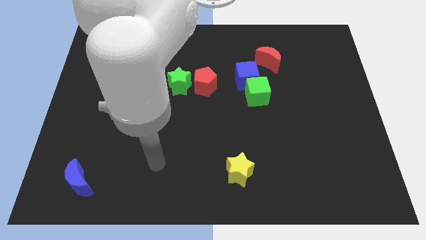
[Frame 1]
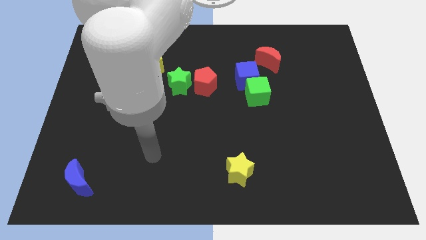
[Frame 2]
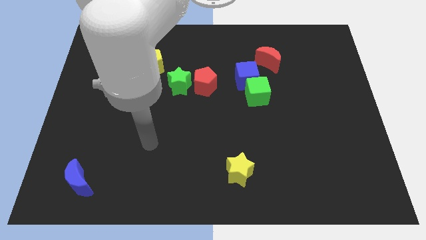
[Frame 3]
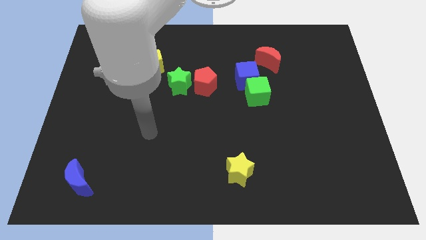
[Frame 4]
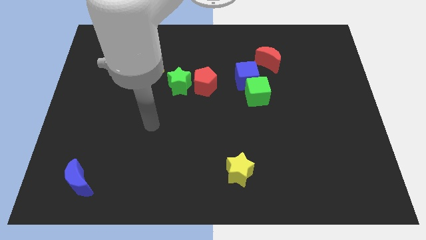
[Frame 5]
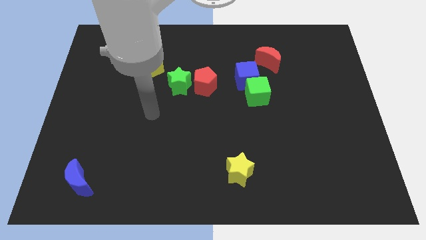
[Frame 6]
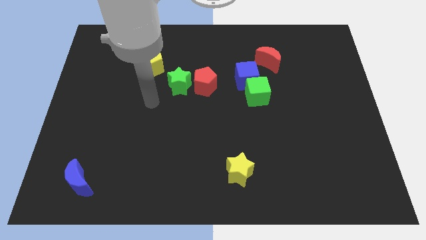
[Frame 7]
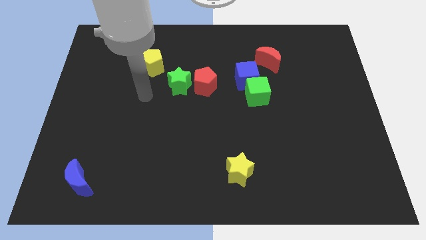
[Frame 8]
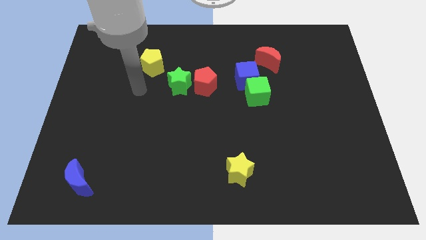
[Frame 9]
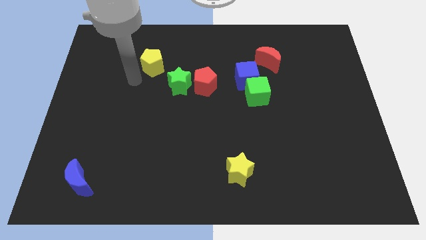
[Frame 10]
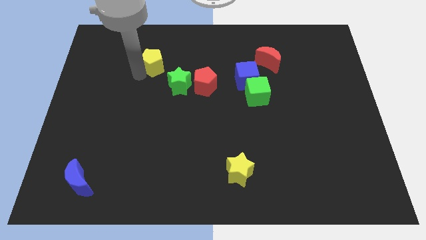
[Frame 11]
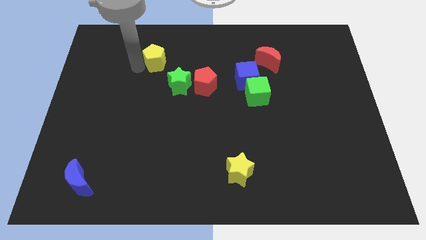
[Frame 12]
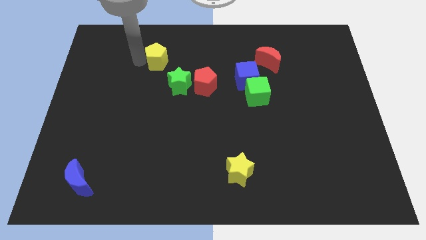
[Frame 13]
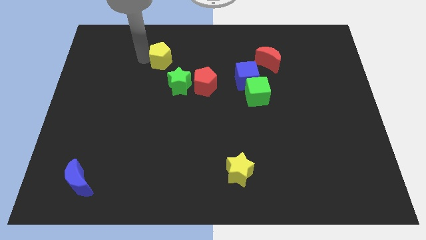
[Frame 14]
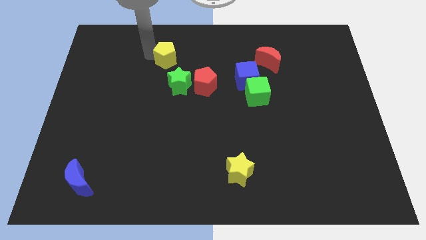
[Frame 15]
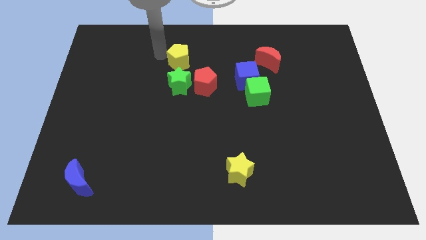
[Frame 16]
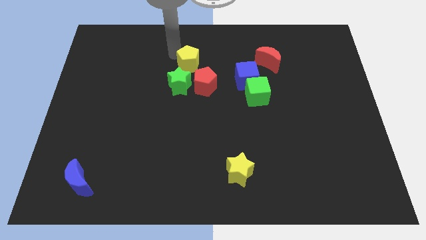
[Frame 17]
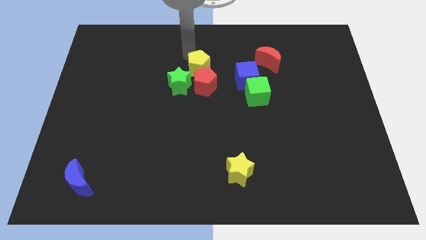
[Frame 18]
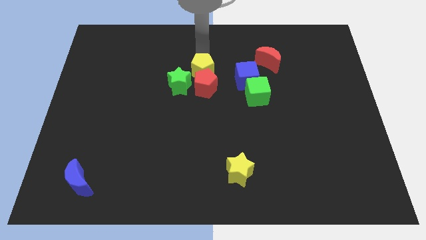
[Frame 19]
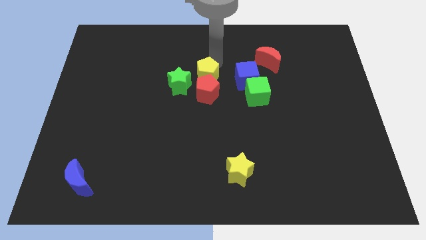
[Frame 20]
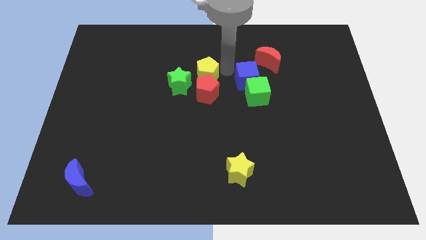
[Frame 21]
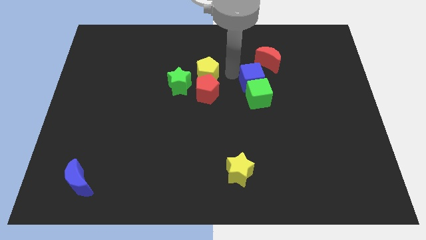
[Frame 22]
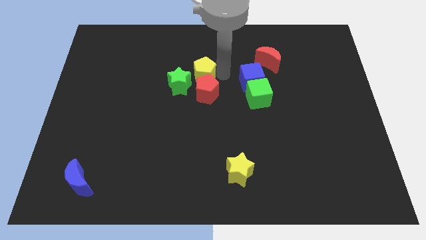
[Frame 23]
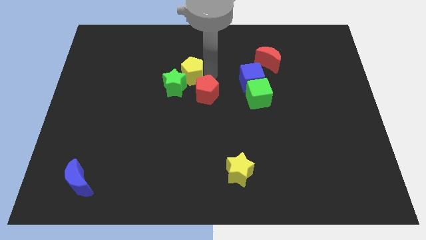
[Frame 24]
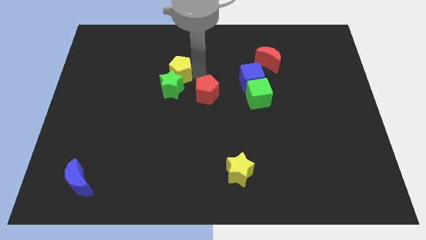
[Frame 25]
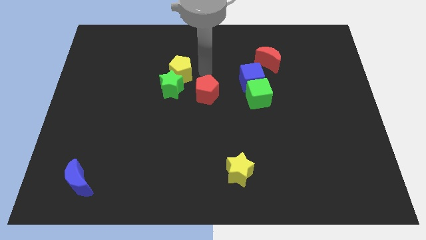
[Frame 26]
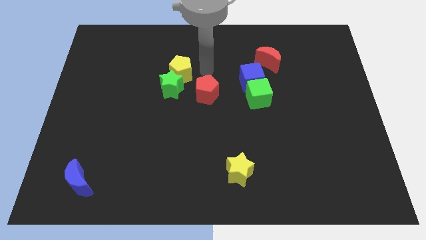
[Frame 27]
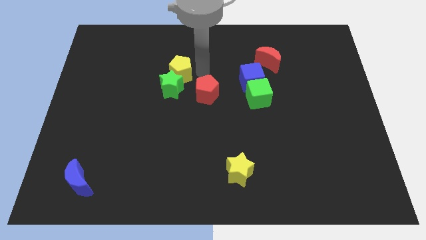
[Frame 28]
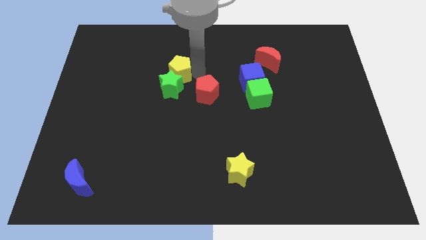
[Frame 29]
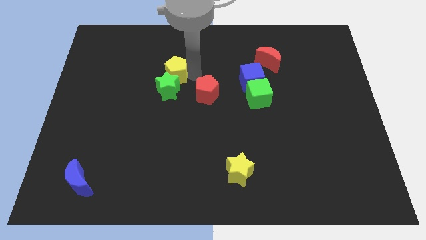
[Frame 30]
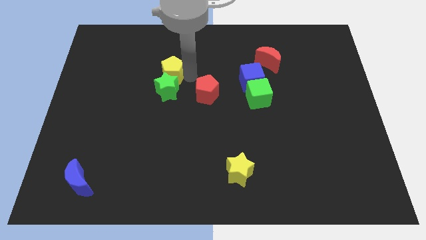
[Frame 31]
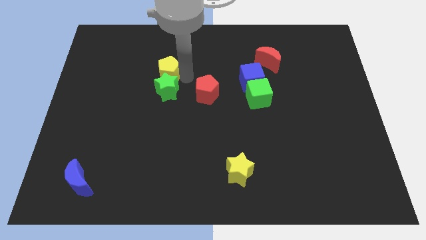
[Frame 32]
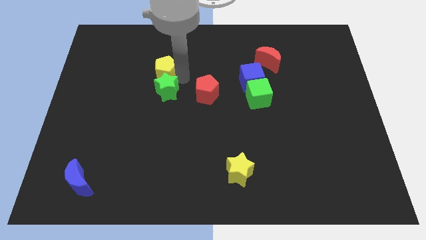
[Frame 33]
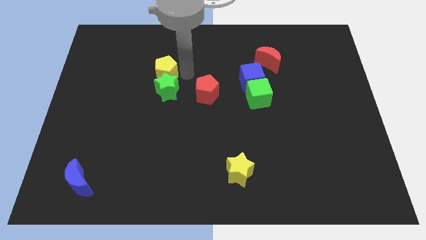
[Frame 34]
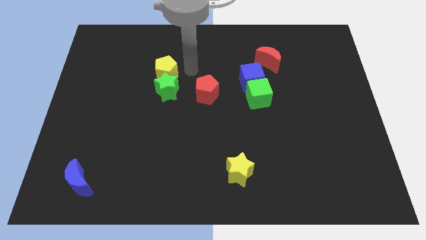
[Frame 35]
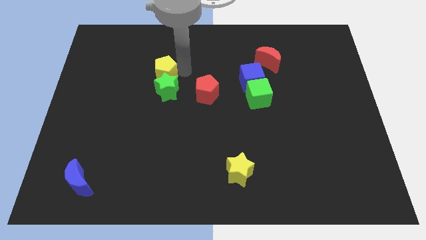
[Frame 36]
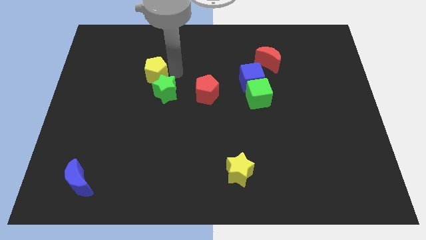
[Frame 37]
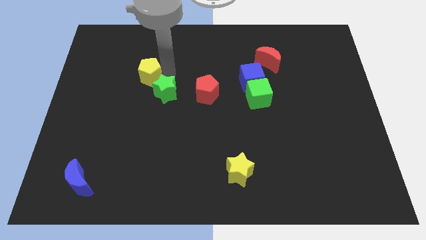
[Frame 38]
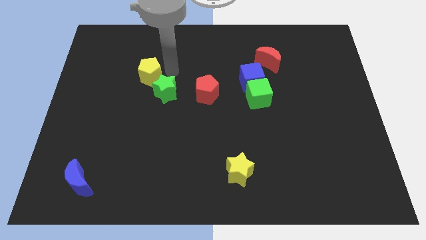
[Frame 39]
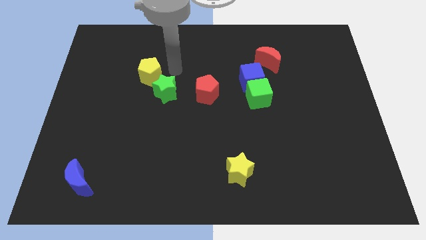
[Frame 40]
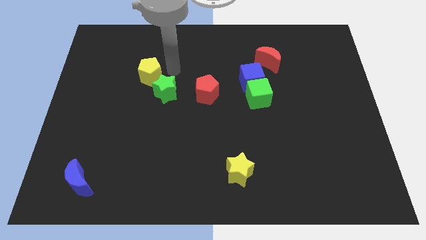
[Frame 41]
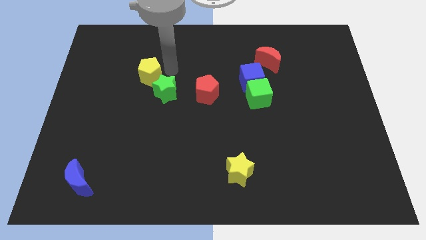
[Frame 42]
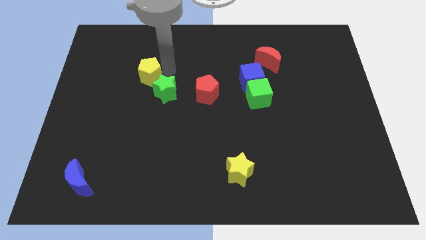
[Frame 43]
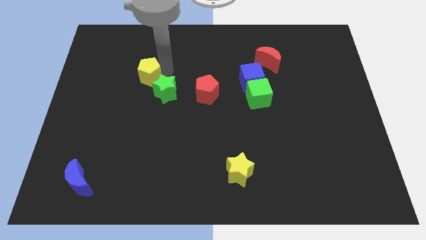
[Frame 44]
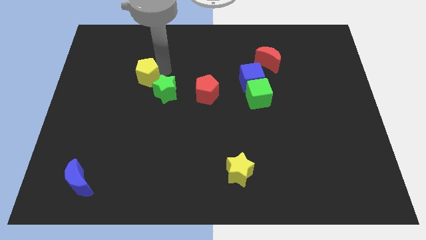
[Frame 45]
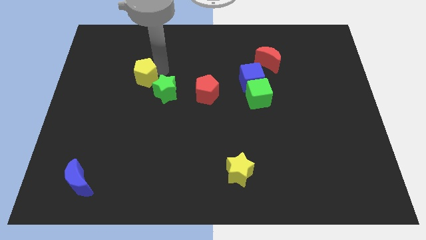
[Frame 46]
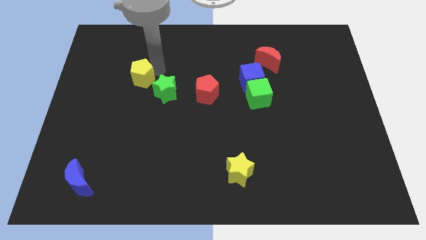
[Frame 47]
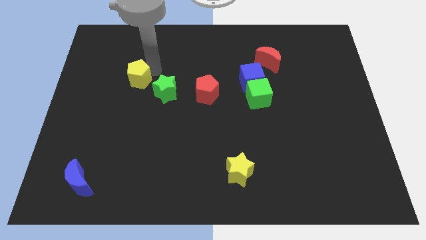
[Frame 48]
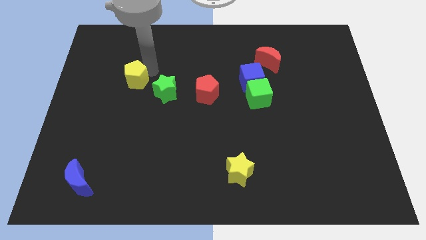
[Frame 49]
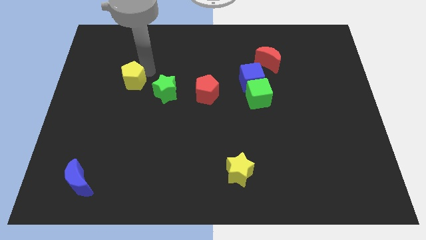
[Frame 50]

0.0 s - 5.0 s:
slightly slide the yellow pentagon downwards and then left

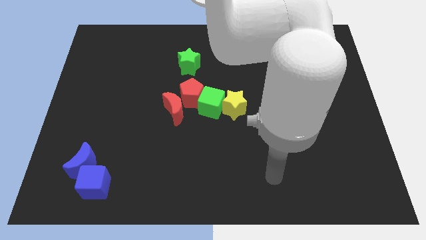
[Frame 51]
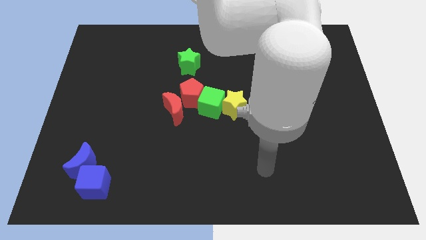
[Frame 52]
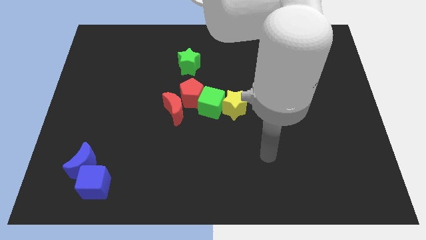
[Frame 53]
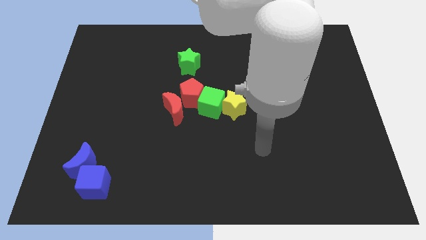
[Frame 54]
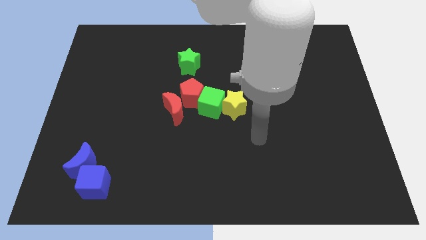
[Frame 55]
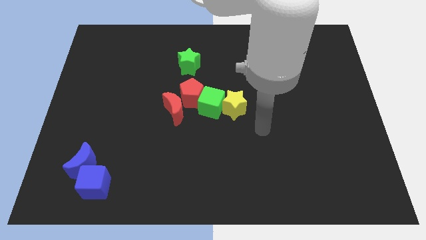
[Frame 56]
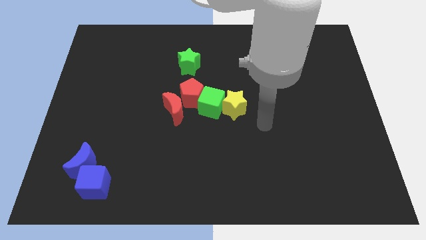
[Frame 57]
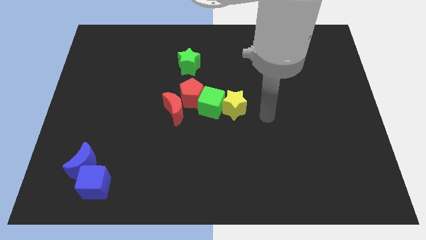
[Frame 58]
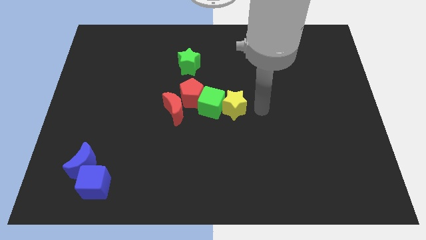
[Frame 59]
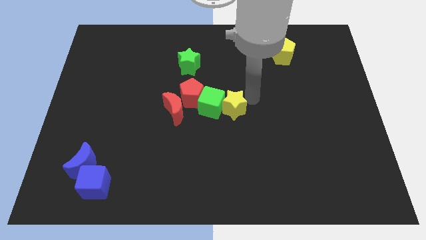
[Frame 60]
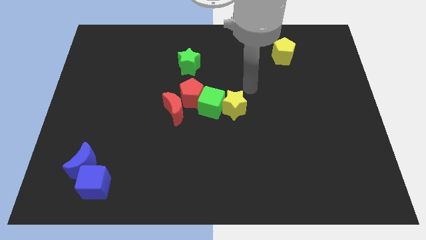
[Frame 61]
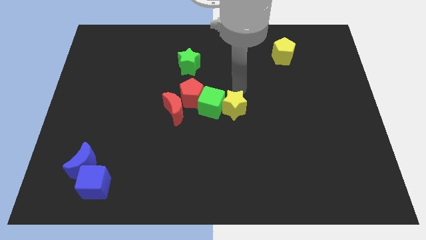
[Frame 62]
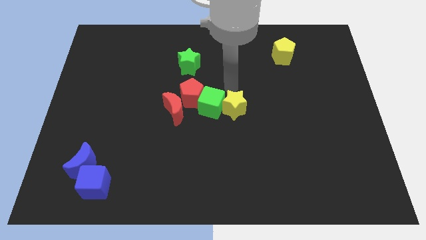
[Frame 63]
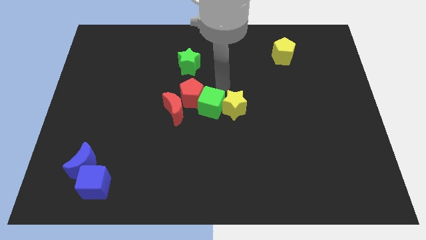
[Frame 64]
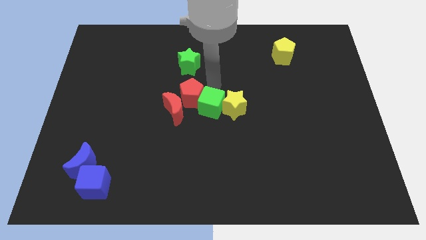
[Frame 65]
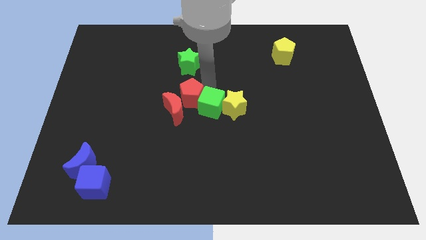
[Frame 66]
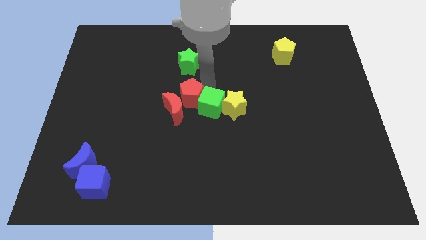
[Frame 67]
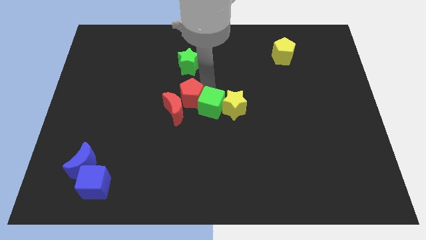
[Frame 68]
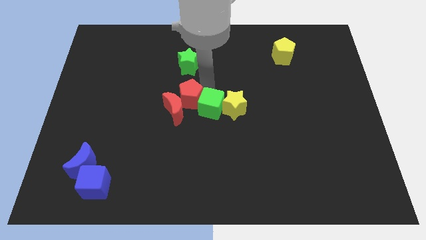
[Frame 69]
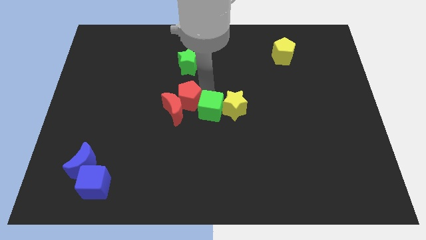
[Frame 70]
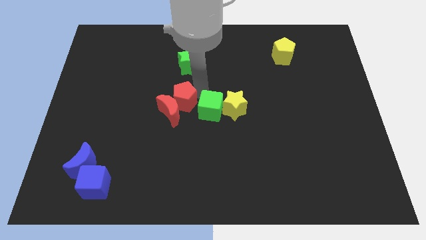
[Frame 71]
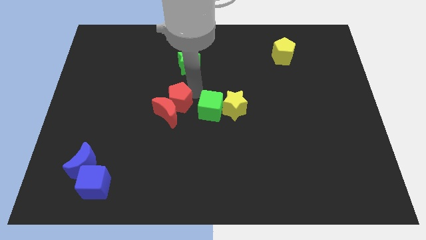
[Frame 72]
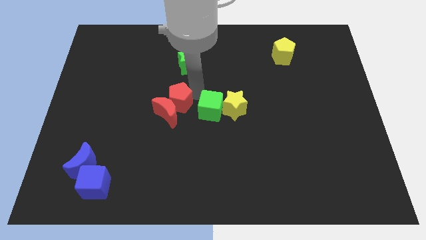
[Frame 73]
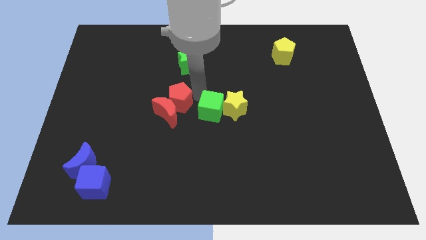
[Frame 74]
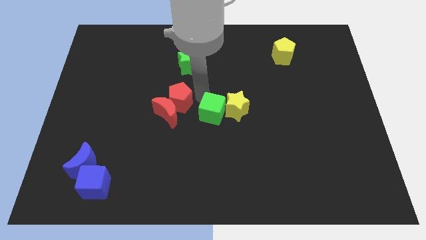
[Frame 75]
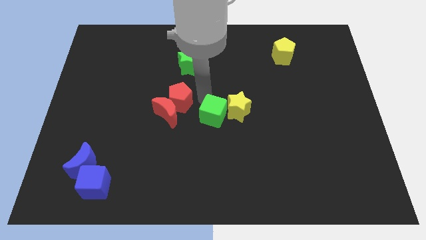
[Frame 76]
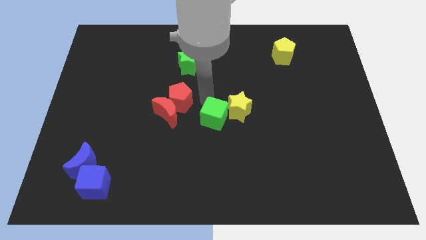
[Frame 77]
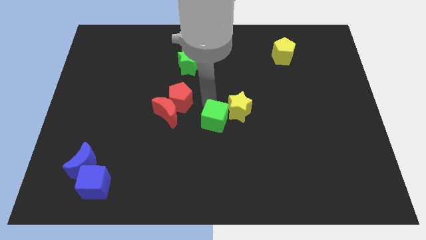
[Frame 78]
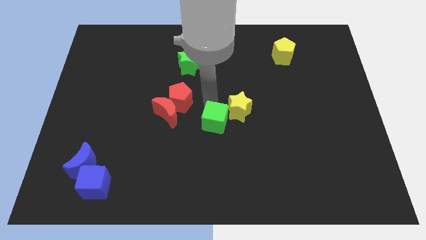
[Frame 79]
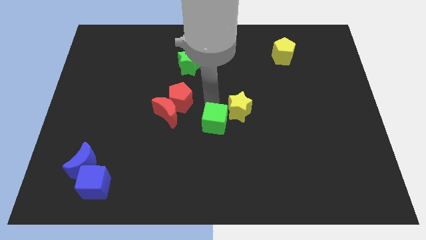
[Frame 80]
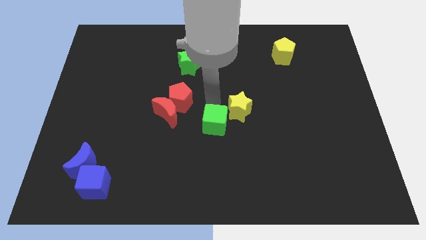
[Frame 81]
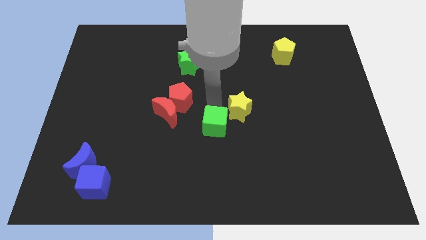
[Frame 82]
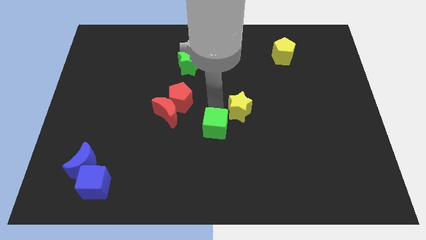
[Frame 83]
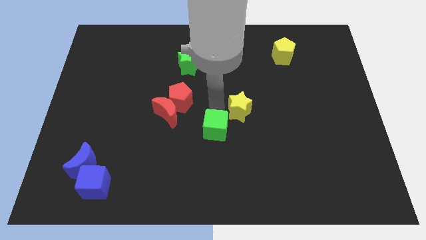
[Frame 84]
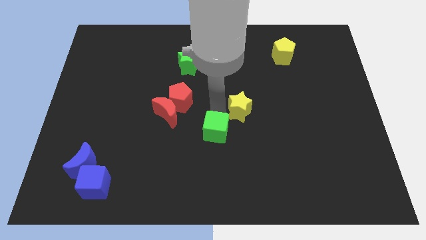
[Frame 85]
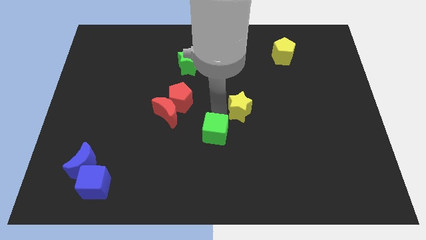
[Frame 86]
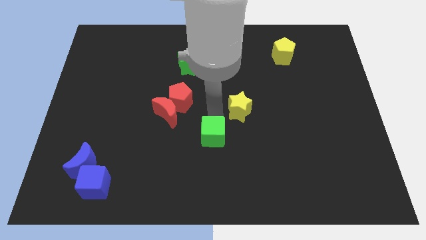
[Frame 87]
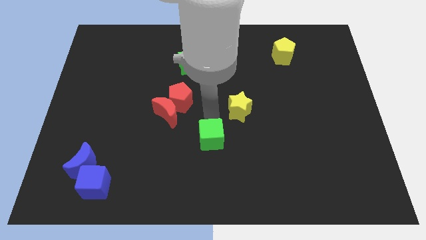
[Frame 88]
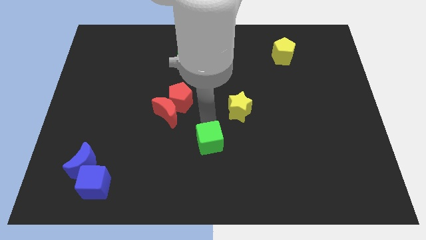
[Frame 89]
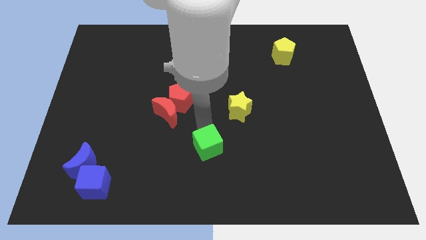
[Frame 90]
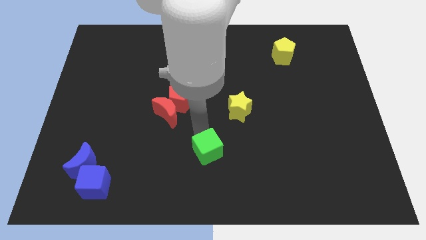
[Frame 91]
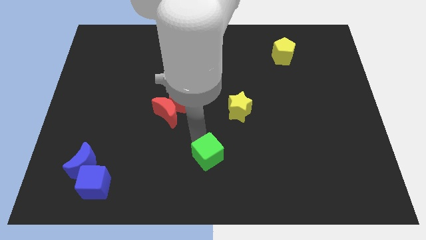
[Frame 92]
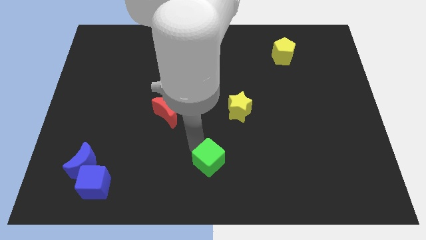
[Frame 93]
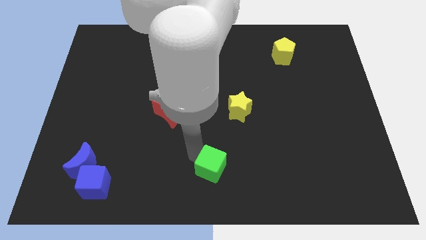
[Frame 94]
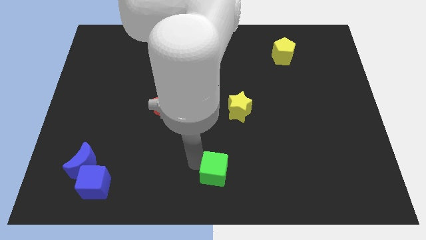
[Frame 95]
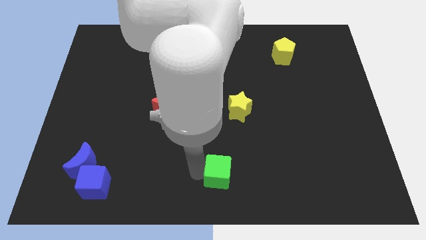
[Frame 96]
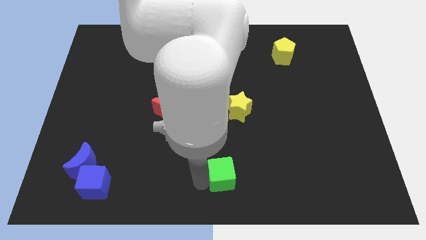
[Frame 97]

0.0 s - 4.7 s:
slightly slide the green cube down and to the right
